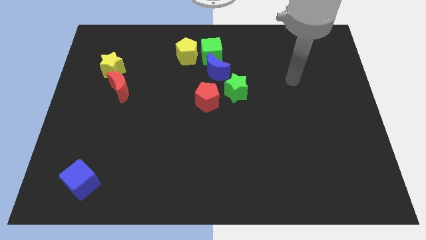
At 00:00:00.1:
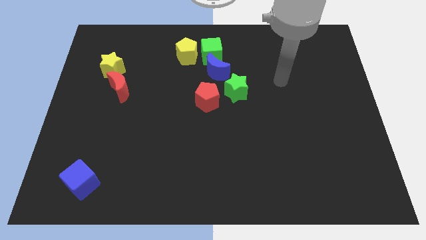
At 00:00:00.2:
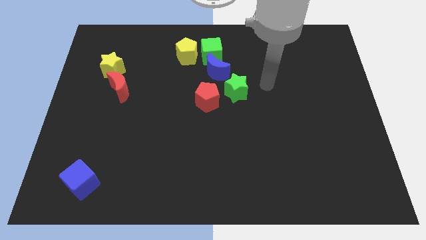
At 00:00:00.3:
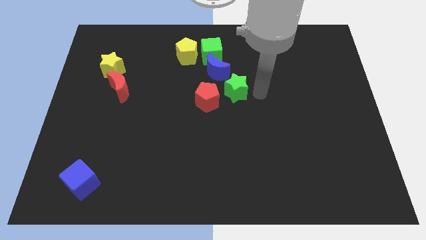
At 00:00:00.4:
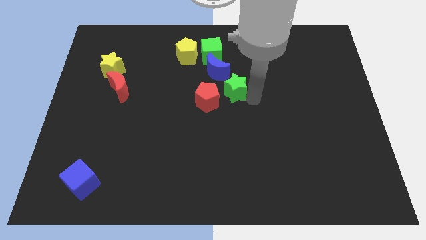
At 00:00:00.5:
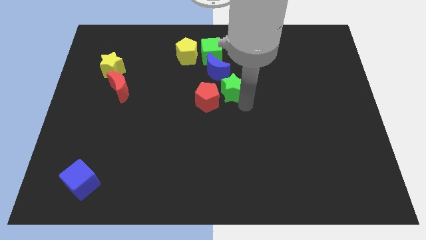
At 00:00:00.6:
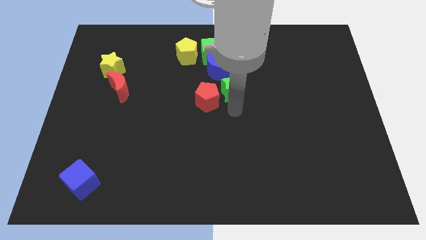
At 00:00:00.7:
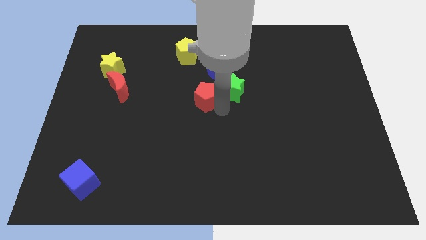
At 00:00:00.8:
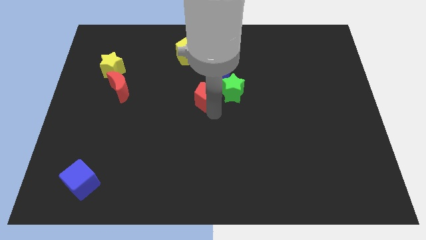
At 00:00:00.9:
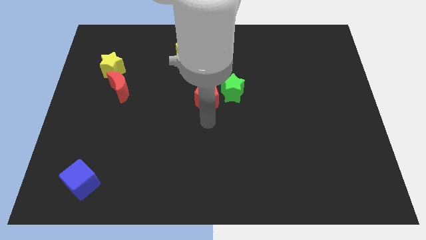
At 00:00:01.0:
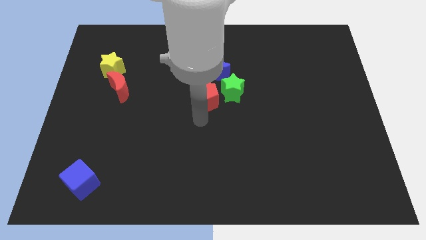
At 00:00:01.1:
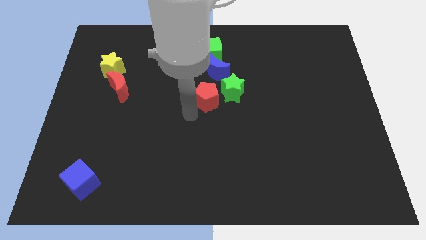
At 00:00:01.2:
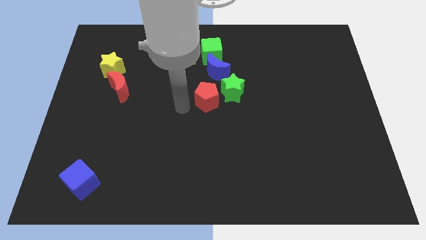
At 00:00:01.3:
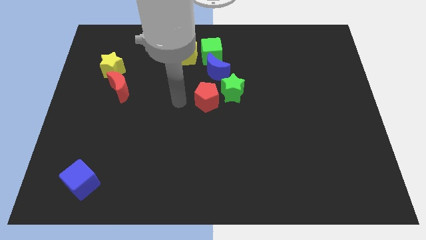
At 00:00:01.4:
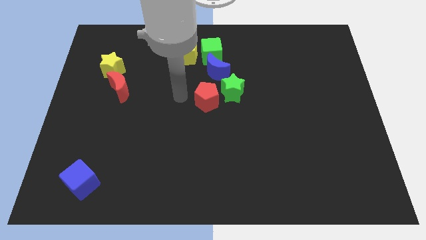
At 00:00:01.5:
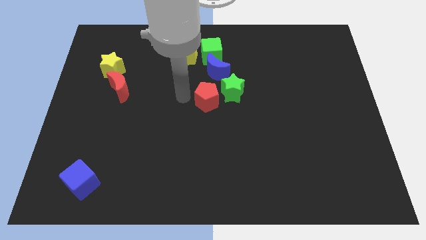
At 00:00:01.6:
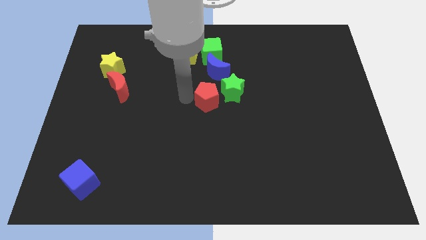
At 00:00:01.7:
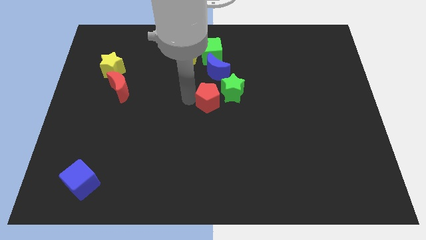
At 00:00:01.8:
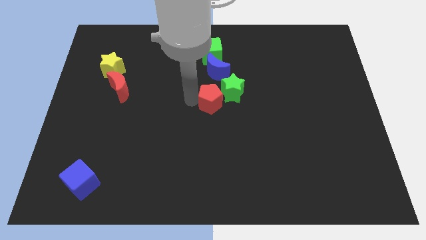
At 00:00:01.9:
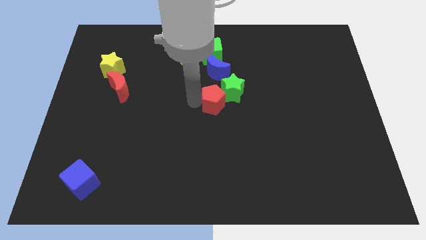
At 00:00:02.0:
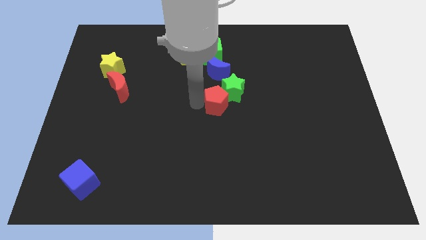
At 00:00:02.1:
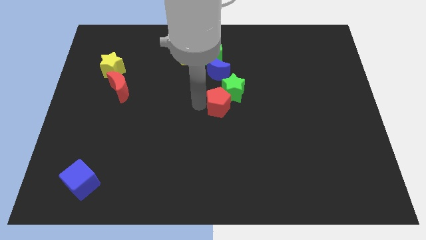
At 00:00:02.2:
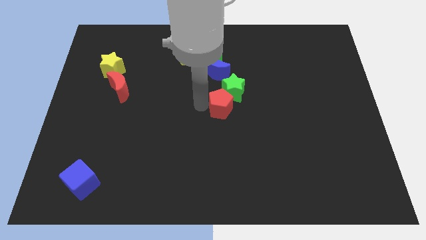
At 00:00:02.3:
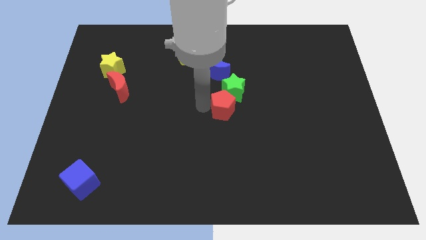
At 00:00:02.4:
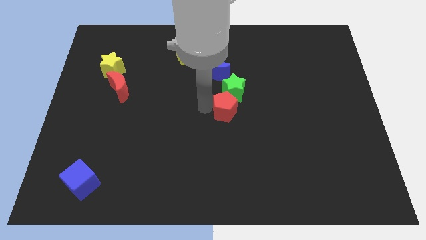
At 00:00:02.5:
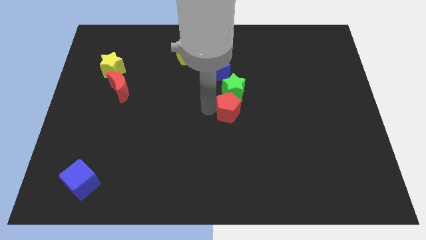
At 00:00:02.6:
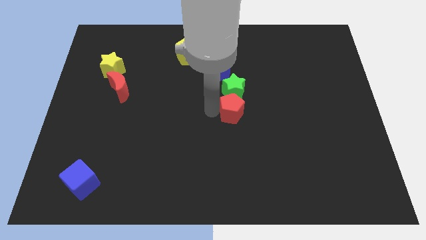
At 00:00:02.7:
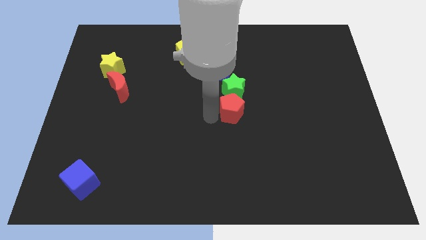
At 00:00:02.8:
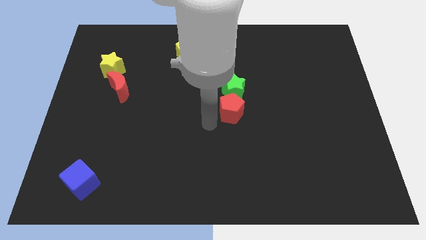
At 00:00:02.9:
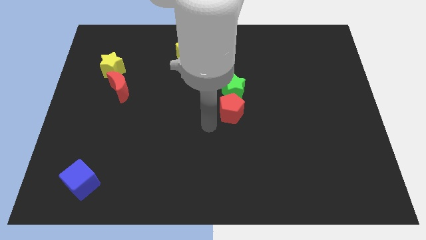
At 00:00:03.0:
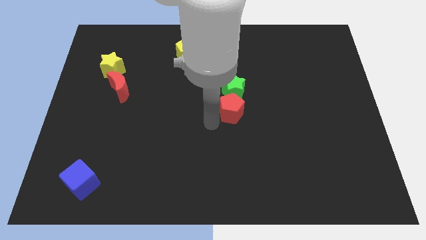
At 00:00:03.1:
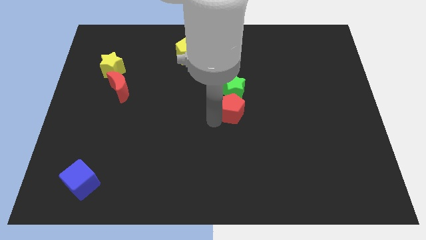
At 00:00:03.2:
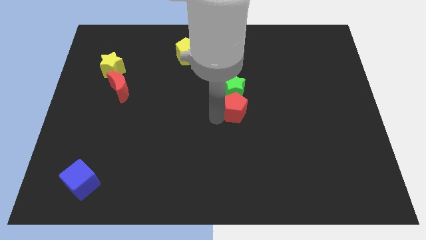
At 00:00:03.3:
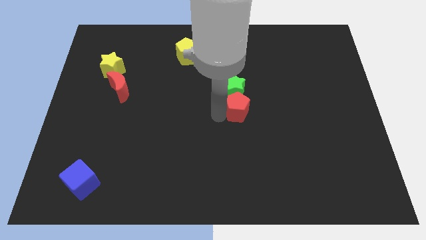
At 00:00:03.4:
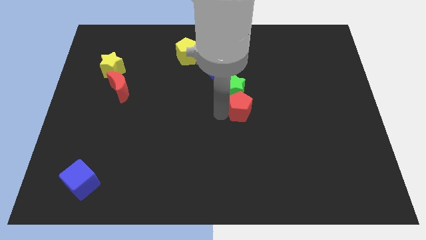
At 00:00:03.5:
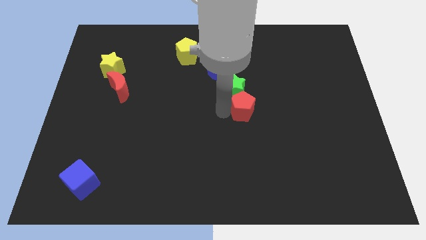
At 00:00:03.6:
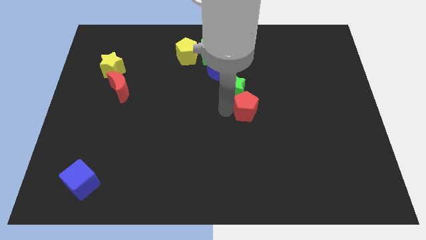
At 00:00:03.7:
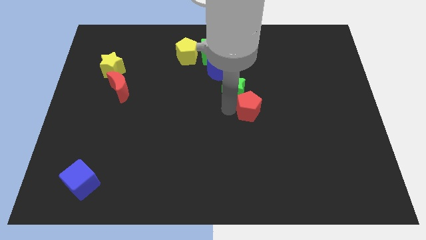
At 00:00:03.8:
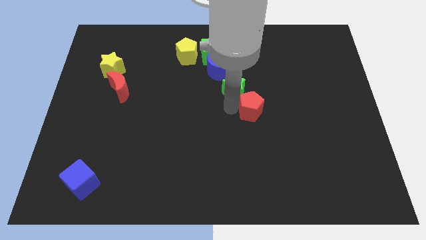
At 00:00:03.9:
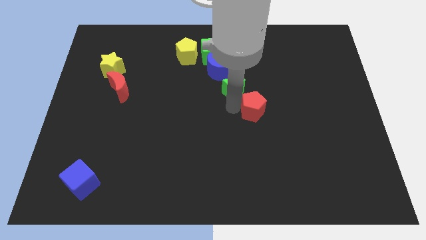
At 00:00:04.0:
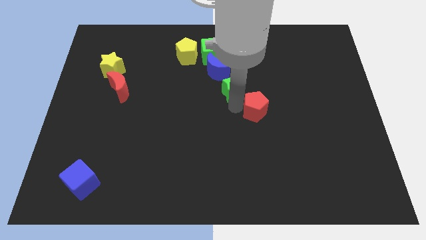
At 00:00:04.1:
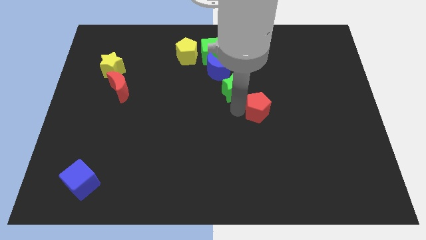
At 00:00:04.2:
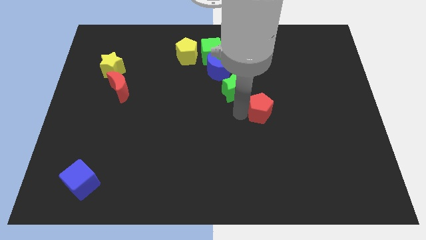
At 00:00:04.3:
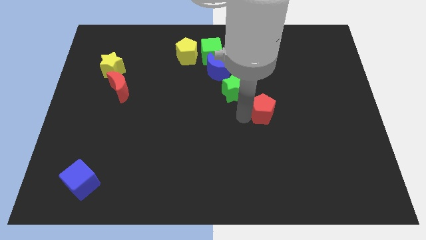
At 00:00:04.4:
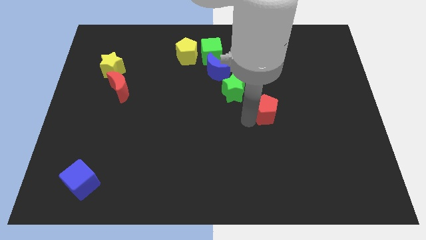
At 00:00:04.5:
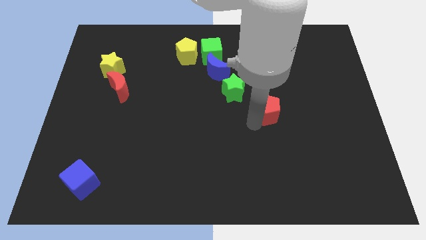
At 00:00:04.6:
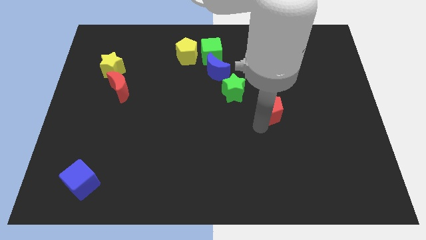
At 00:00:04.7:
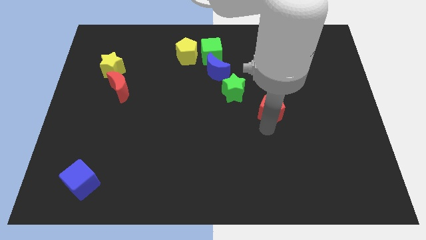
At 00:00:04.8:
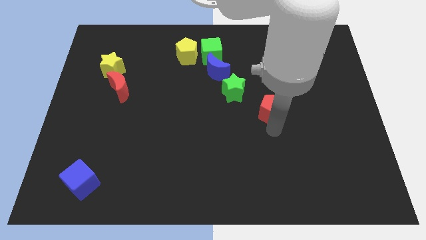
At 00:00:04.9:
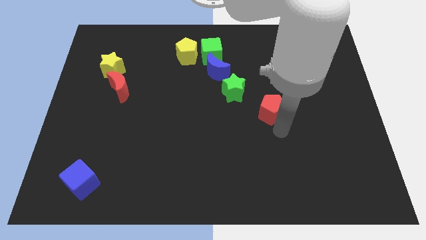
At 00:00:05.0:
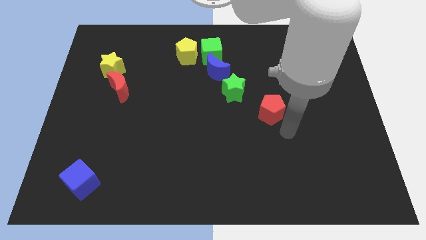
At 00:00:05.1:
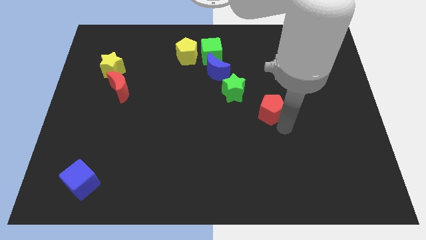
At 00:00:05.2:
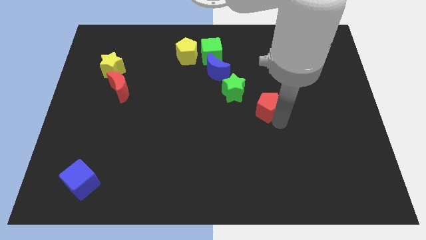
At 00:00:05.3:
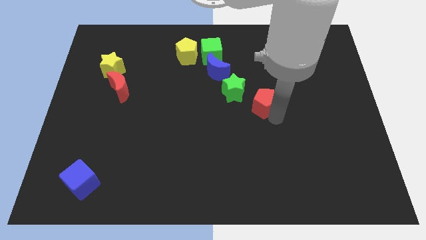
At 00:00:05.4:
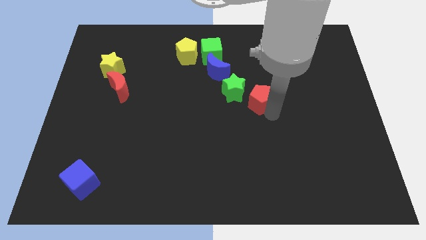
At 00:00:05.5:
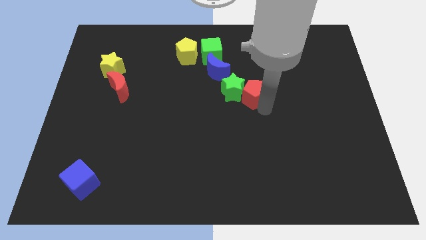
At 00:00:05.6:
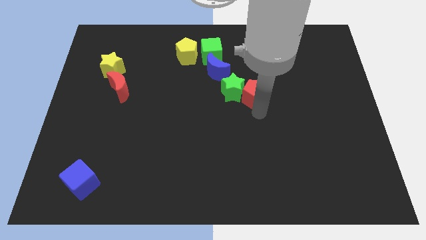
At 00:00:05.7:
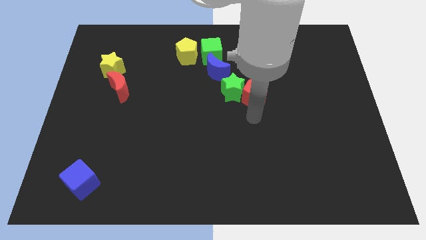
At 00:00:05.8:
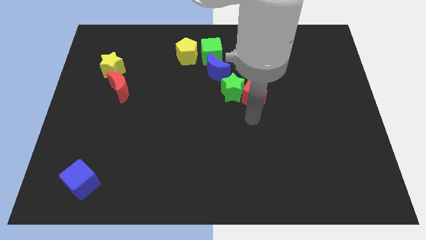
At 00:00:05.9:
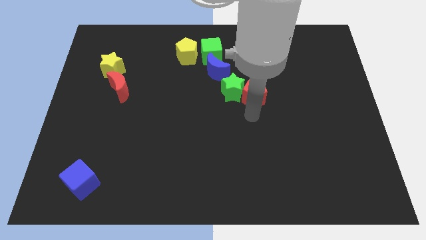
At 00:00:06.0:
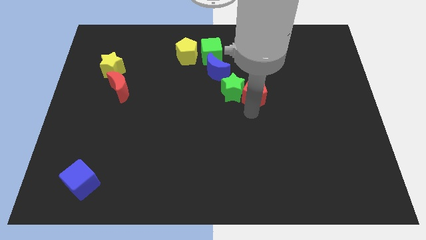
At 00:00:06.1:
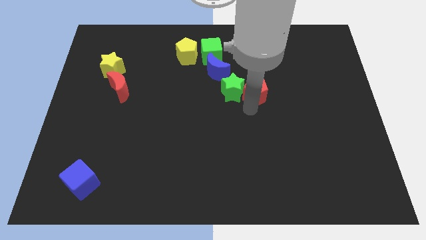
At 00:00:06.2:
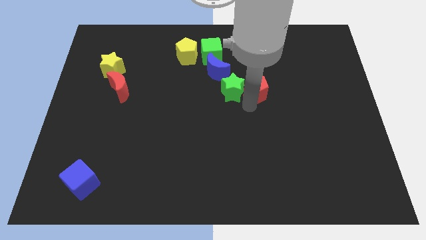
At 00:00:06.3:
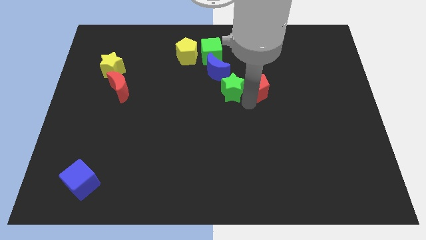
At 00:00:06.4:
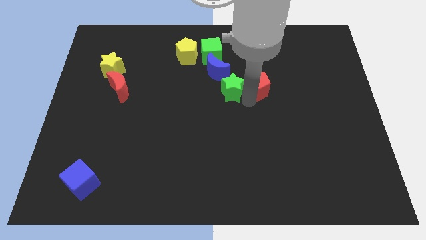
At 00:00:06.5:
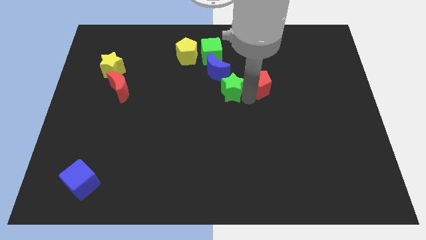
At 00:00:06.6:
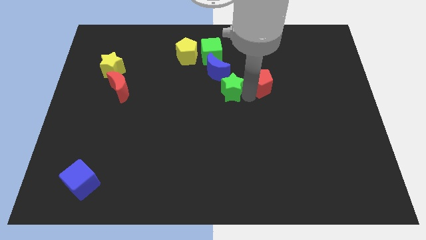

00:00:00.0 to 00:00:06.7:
put the red pentagon right of the blue moon
